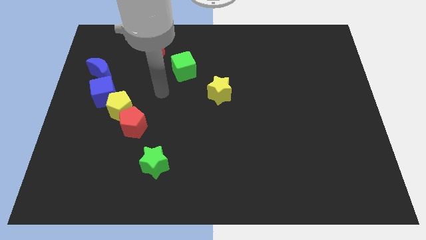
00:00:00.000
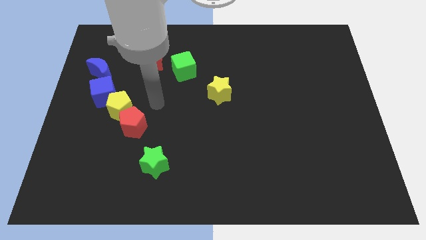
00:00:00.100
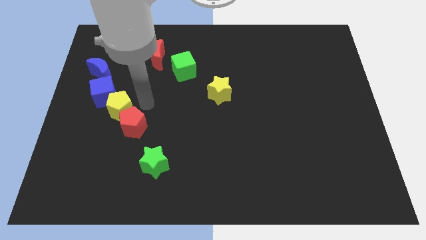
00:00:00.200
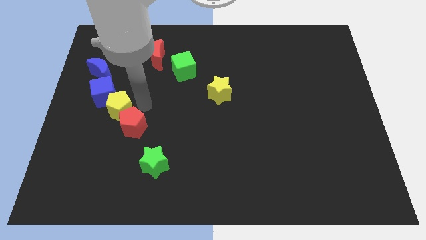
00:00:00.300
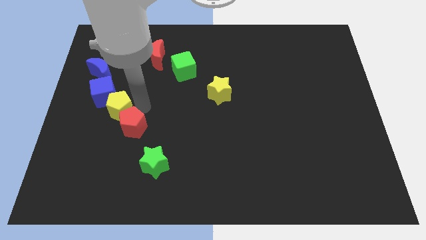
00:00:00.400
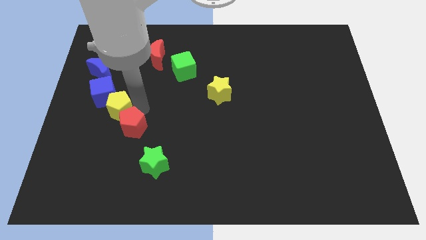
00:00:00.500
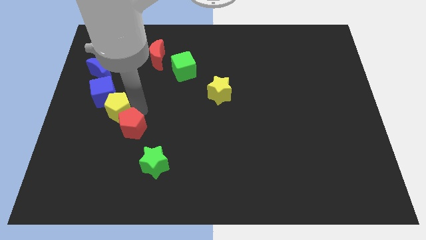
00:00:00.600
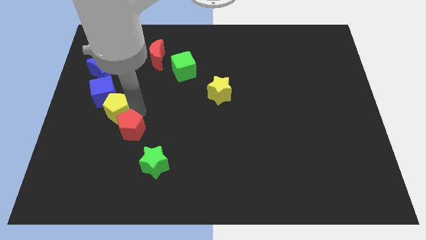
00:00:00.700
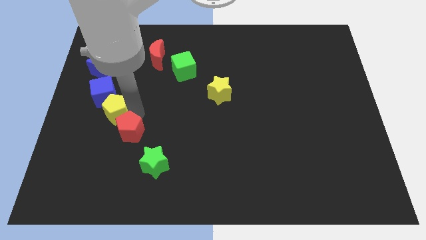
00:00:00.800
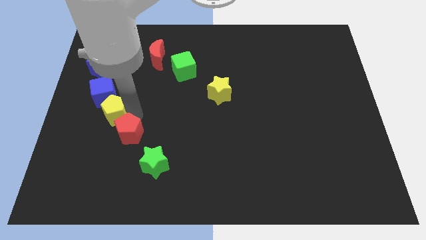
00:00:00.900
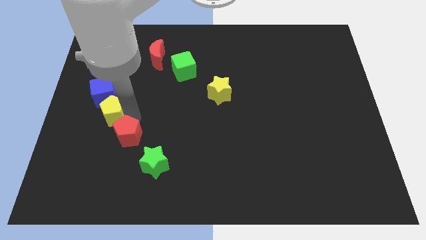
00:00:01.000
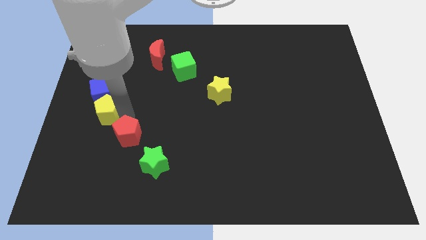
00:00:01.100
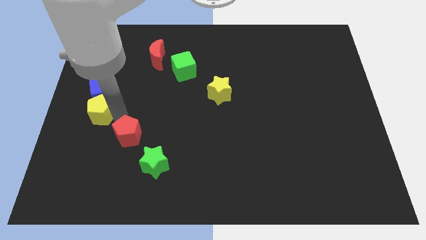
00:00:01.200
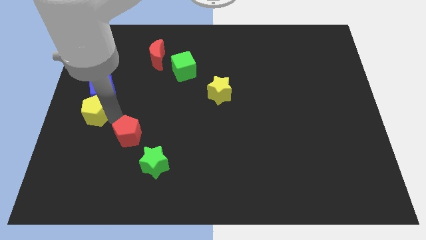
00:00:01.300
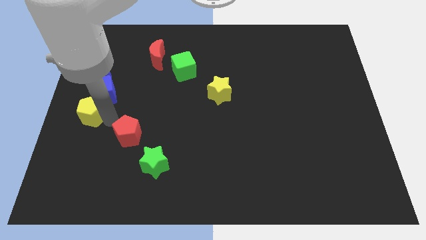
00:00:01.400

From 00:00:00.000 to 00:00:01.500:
move the red pentagon away from the yellow pentagon

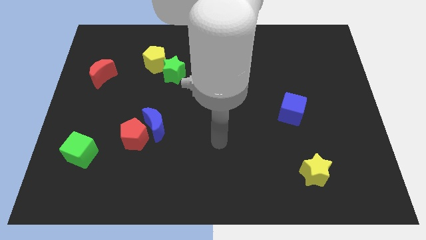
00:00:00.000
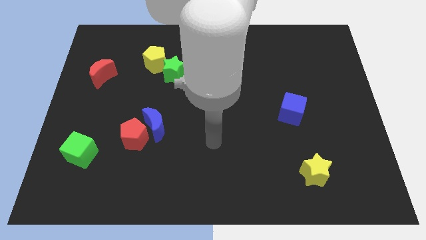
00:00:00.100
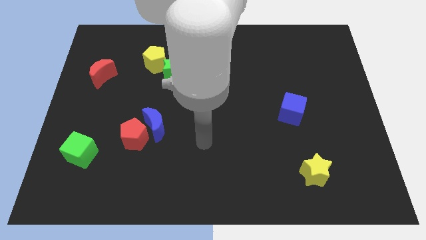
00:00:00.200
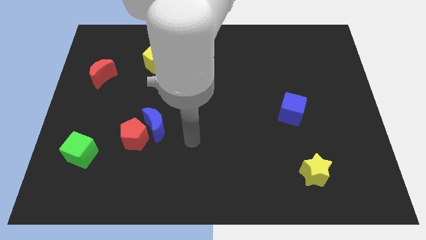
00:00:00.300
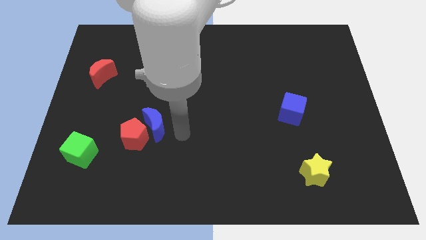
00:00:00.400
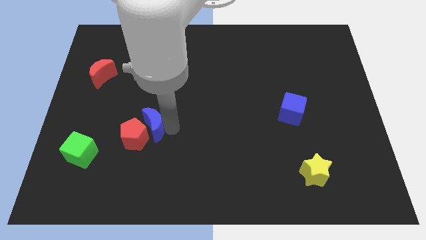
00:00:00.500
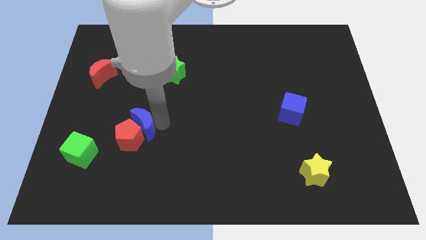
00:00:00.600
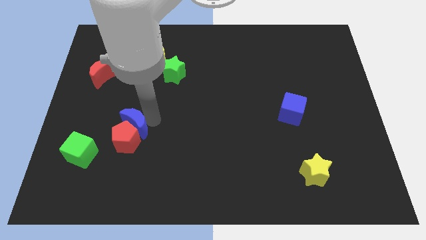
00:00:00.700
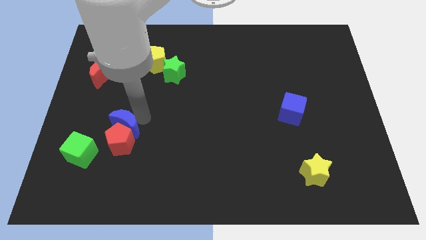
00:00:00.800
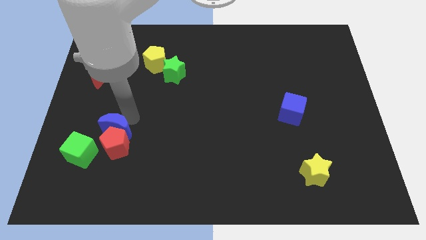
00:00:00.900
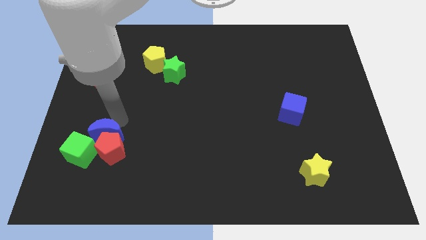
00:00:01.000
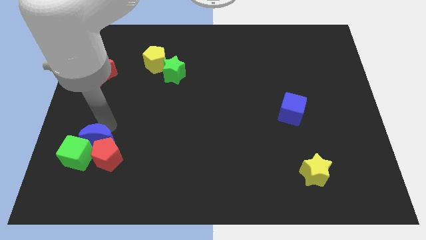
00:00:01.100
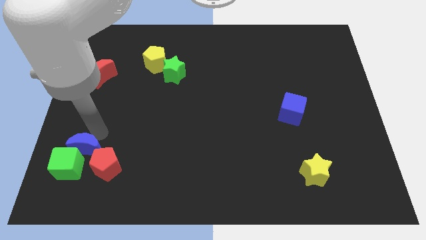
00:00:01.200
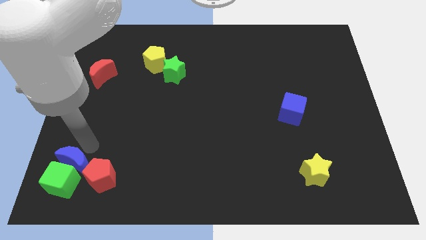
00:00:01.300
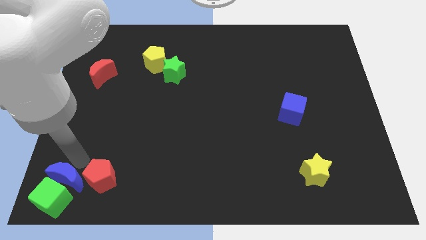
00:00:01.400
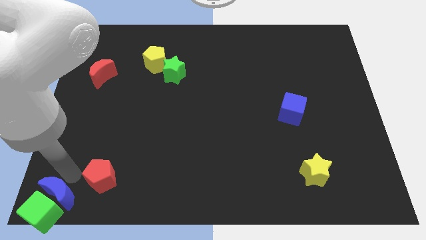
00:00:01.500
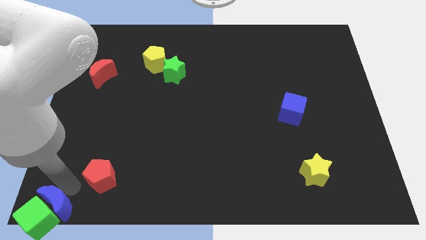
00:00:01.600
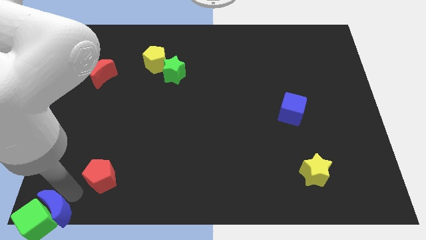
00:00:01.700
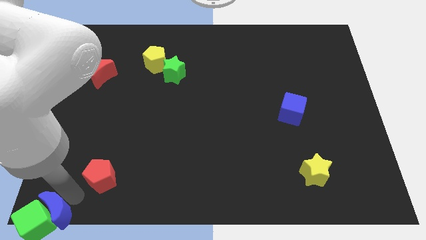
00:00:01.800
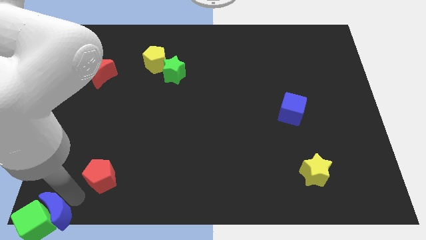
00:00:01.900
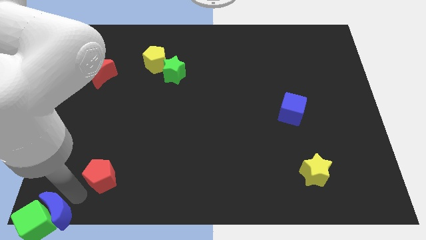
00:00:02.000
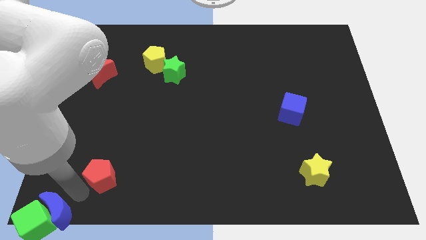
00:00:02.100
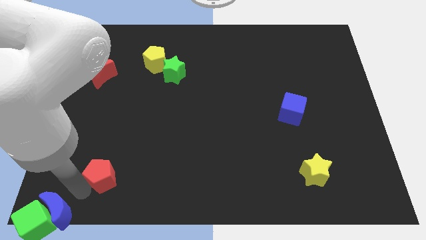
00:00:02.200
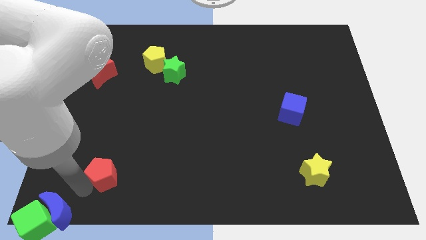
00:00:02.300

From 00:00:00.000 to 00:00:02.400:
move the red pentagon away from the blue moon

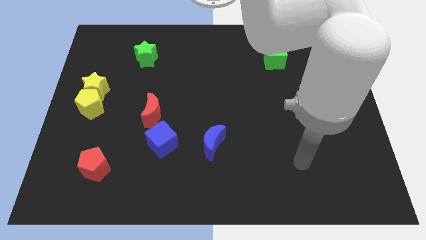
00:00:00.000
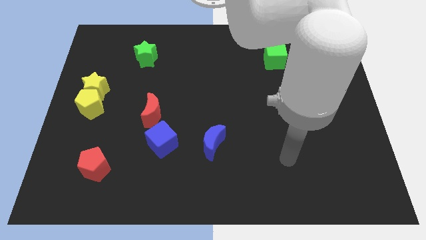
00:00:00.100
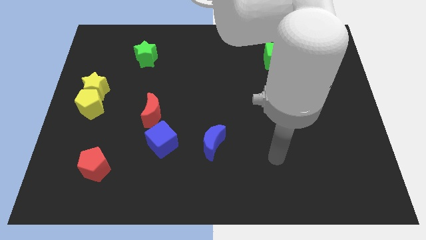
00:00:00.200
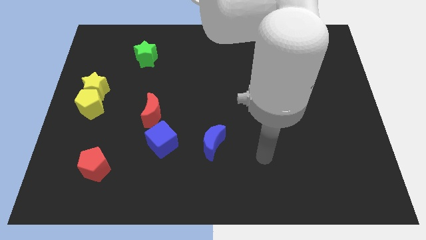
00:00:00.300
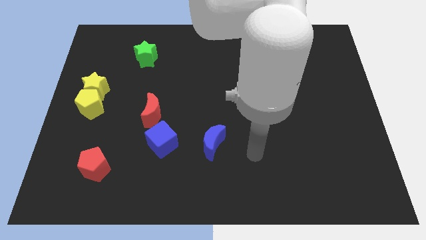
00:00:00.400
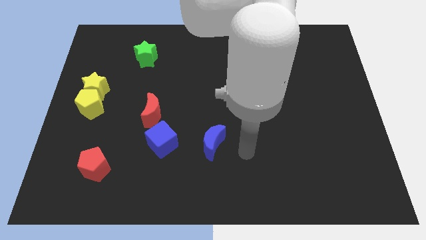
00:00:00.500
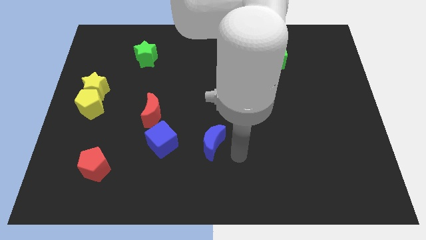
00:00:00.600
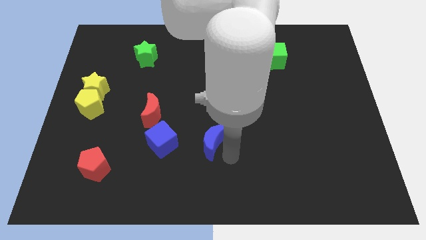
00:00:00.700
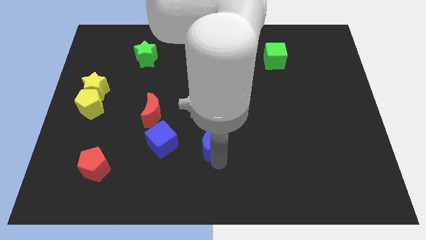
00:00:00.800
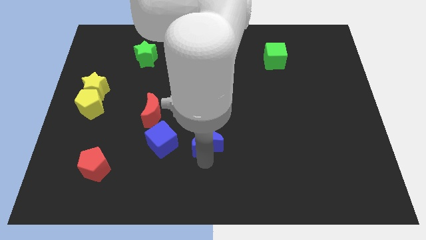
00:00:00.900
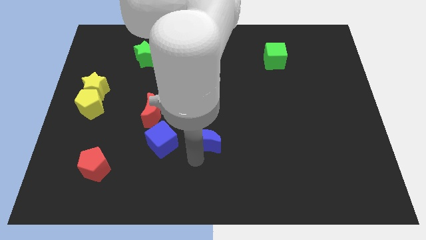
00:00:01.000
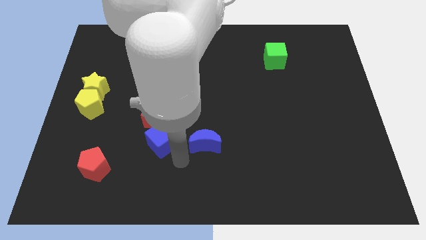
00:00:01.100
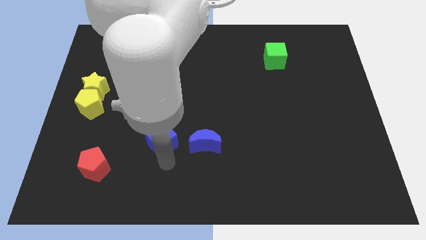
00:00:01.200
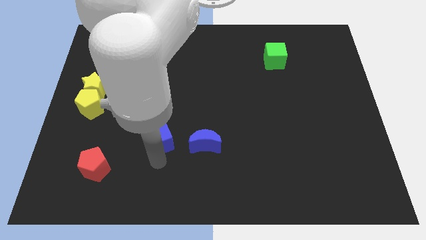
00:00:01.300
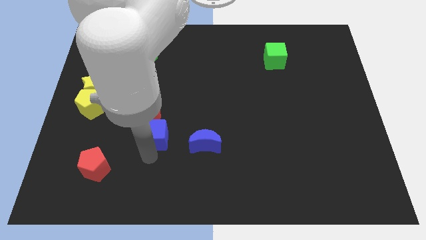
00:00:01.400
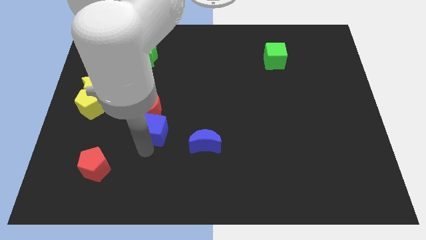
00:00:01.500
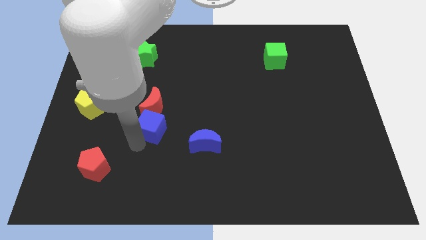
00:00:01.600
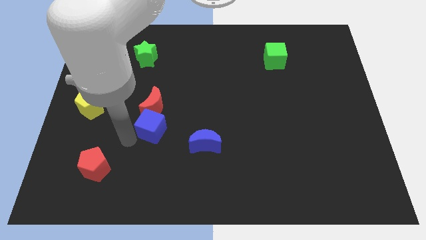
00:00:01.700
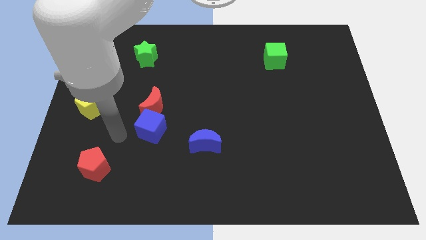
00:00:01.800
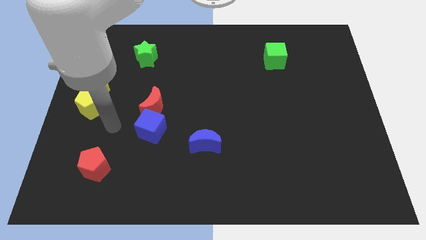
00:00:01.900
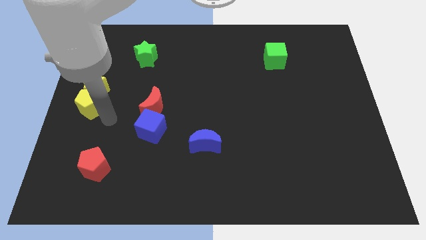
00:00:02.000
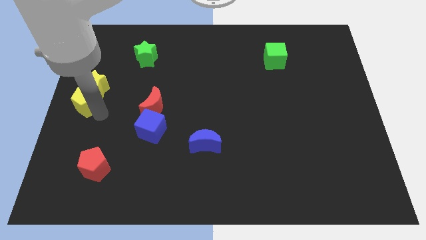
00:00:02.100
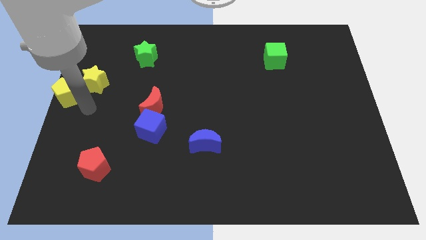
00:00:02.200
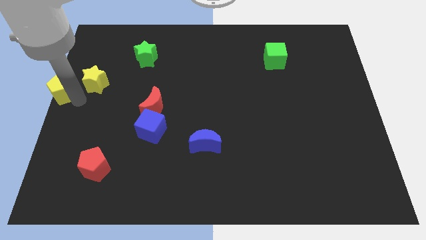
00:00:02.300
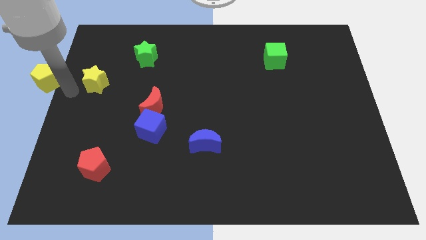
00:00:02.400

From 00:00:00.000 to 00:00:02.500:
separate the yellow star from the yellow pentagon

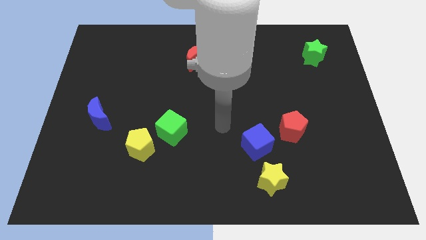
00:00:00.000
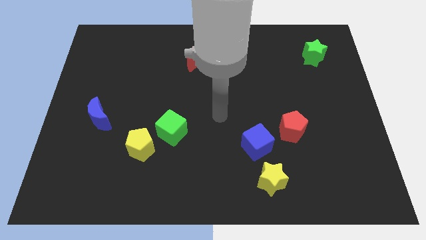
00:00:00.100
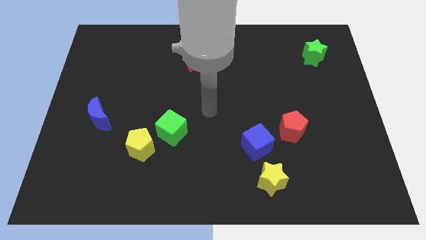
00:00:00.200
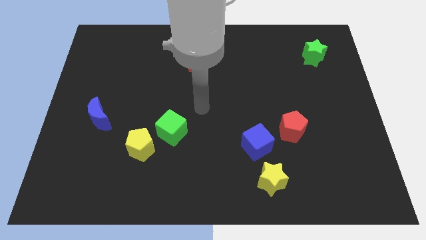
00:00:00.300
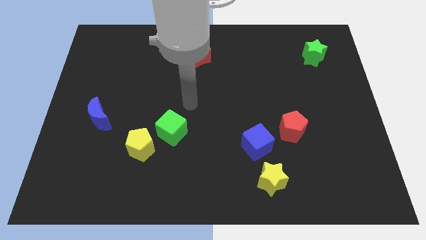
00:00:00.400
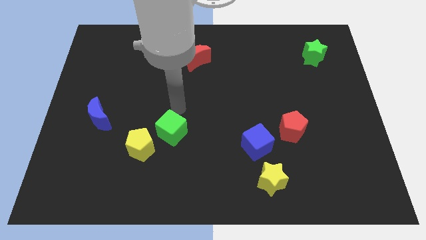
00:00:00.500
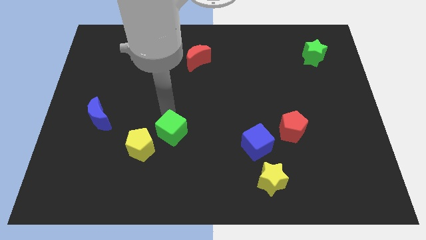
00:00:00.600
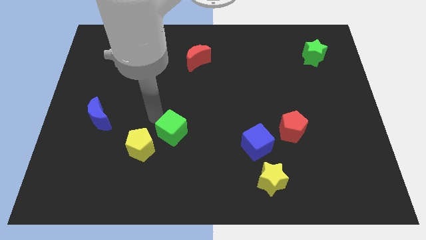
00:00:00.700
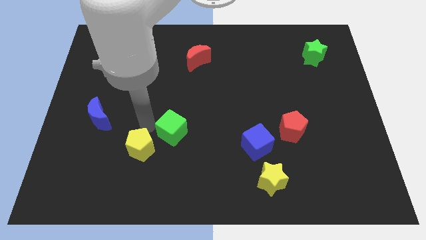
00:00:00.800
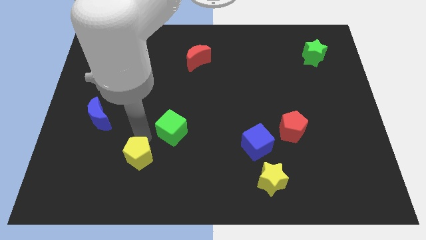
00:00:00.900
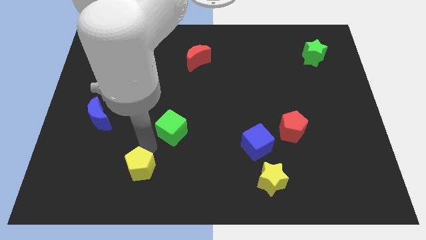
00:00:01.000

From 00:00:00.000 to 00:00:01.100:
separate the green cube from the yellow pentagon

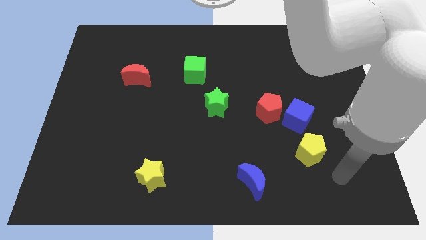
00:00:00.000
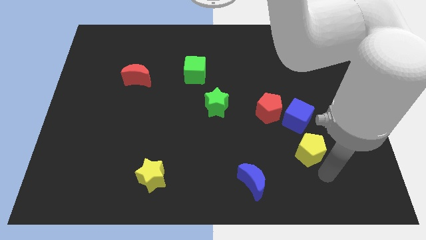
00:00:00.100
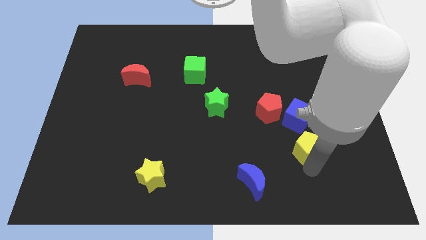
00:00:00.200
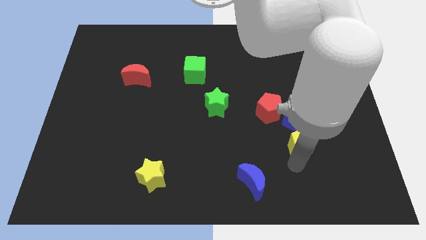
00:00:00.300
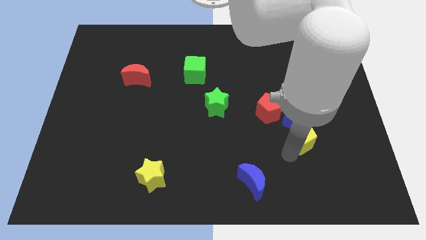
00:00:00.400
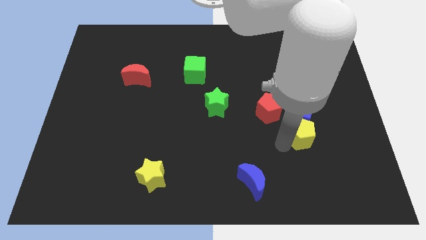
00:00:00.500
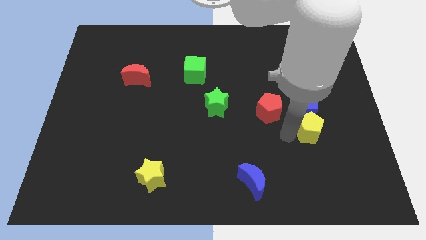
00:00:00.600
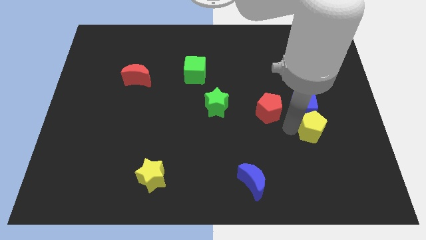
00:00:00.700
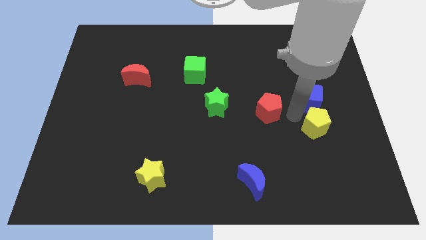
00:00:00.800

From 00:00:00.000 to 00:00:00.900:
move the red pentagon away from the blue cube

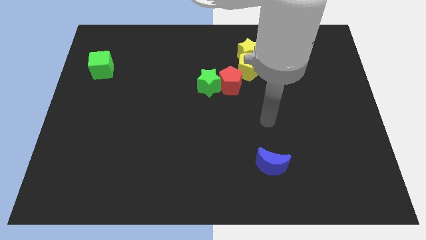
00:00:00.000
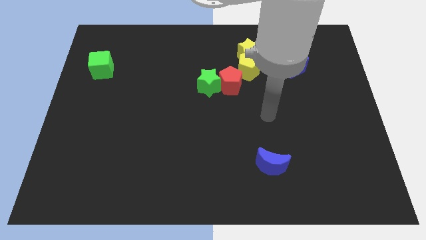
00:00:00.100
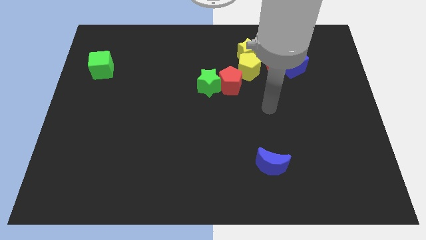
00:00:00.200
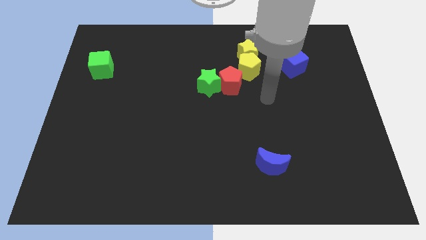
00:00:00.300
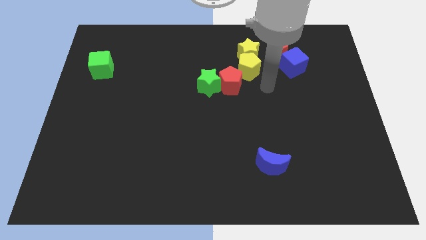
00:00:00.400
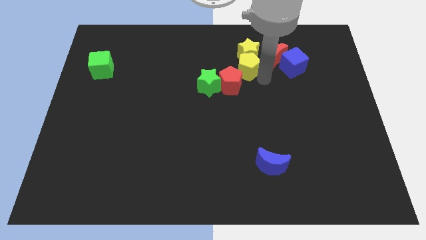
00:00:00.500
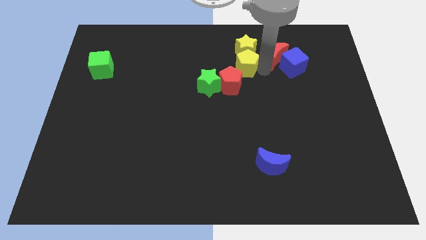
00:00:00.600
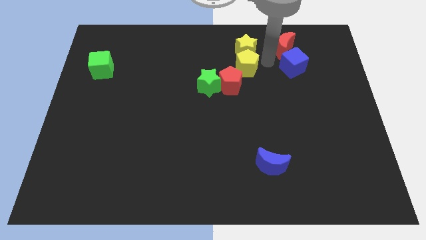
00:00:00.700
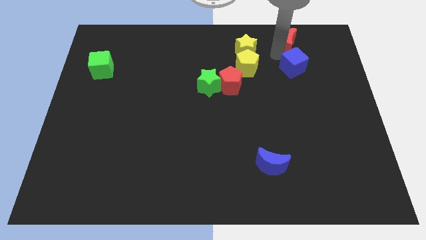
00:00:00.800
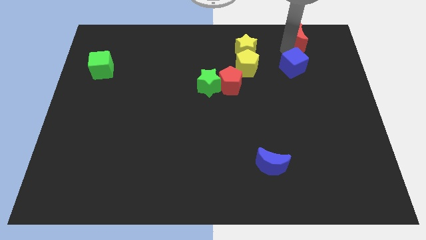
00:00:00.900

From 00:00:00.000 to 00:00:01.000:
pull the blue cube apart from the red moon
